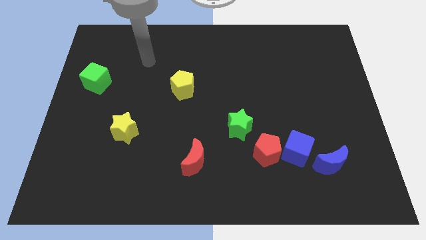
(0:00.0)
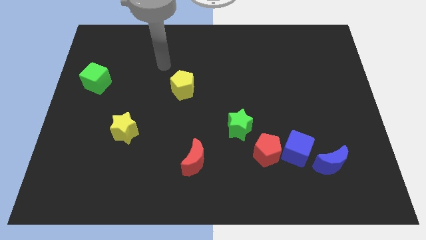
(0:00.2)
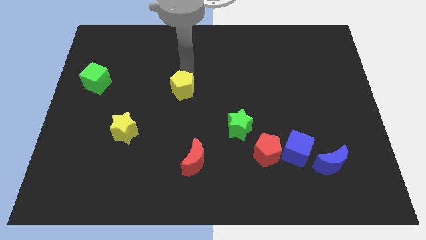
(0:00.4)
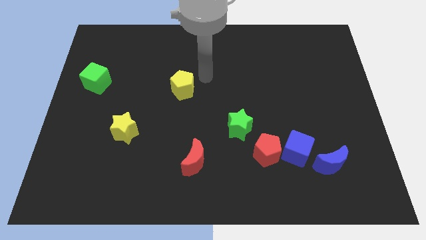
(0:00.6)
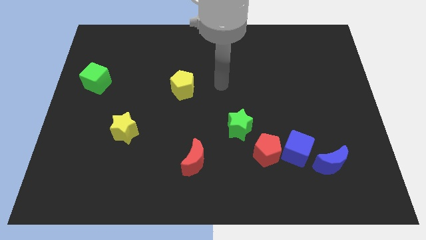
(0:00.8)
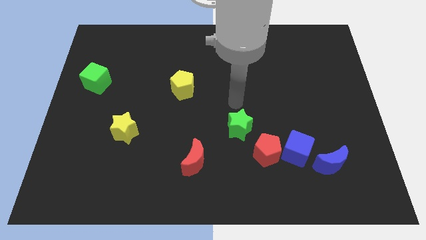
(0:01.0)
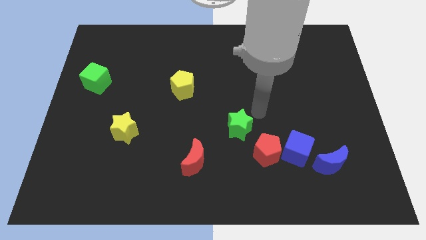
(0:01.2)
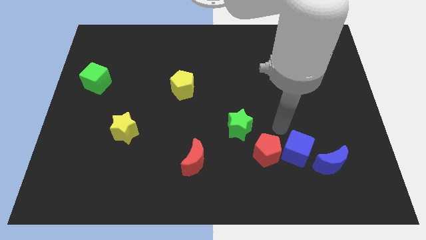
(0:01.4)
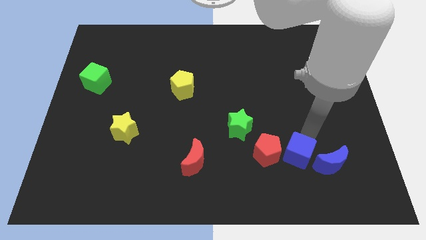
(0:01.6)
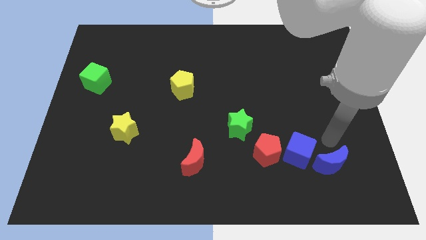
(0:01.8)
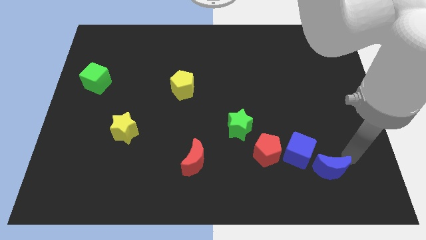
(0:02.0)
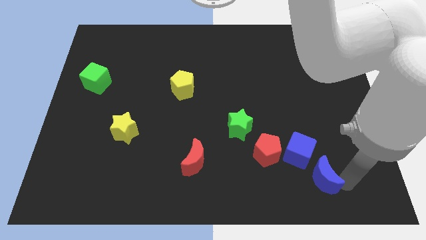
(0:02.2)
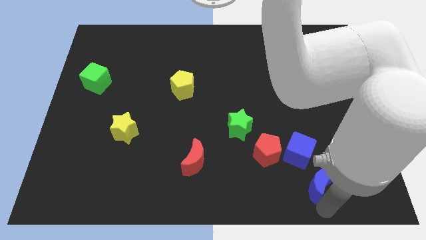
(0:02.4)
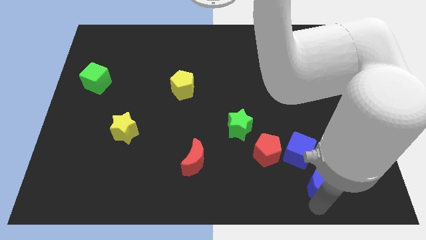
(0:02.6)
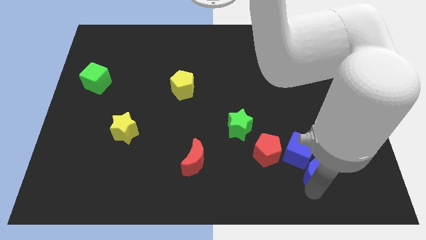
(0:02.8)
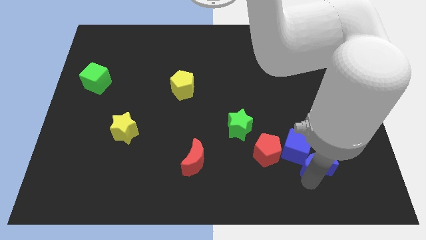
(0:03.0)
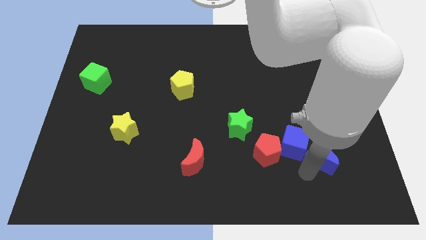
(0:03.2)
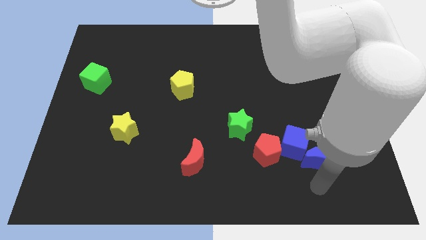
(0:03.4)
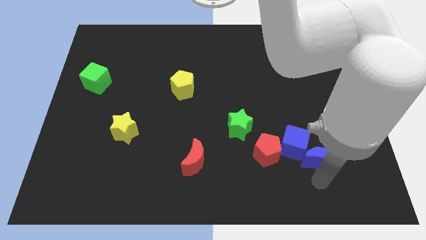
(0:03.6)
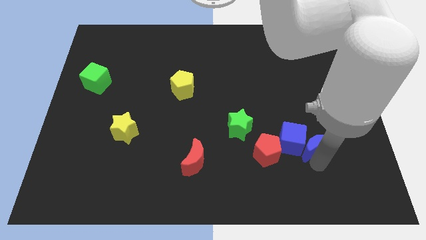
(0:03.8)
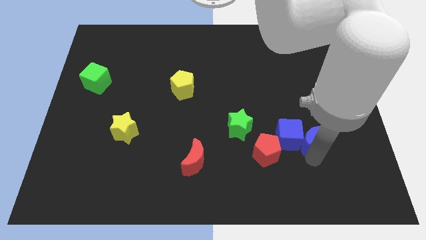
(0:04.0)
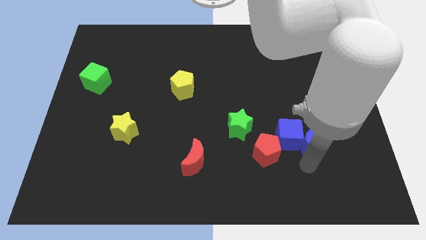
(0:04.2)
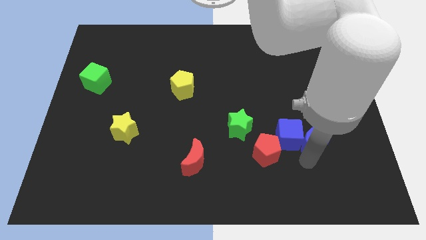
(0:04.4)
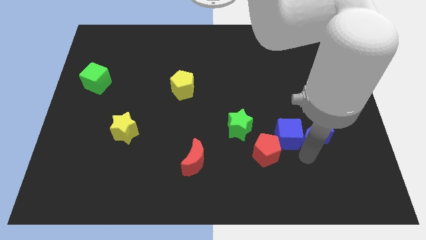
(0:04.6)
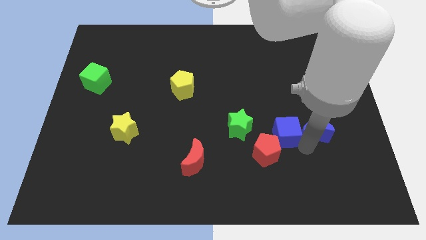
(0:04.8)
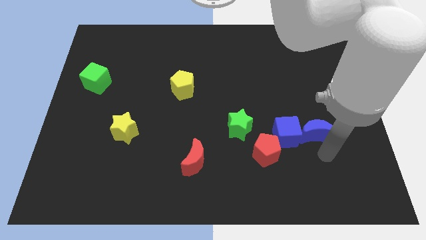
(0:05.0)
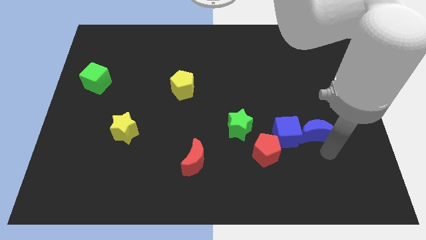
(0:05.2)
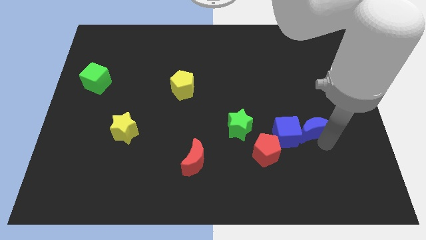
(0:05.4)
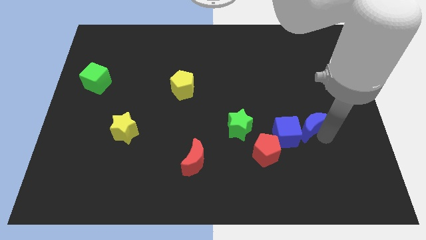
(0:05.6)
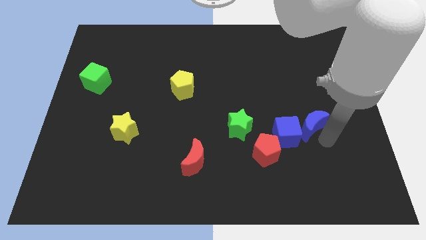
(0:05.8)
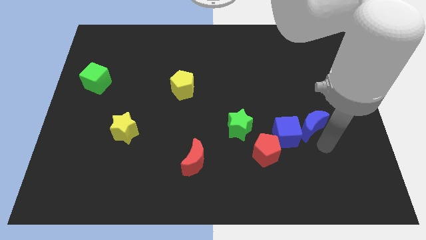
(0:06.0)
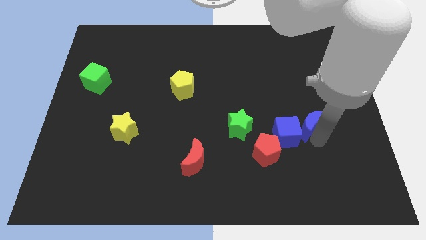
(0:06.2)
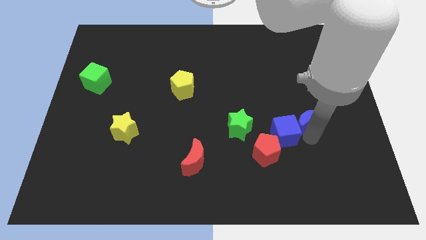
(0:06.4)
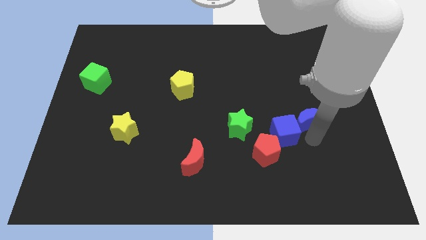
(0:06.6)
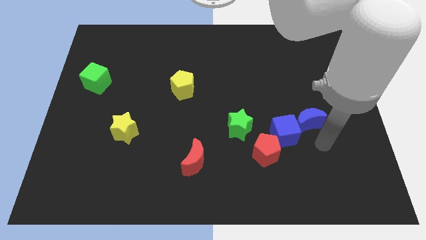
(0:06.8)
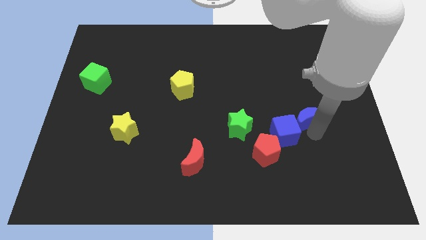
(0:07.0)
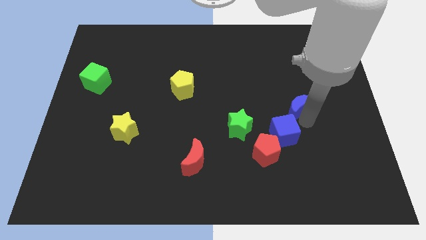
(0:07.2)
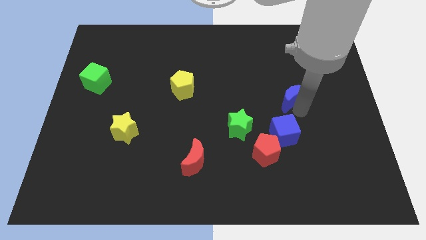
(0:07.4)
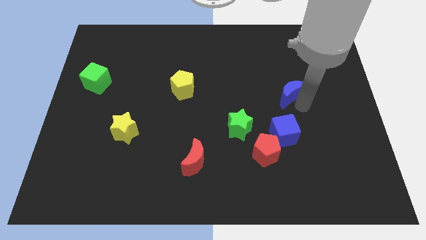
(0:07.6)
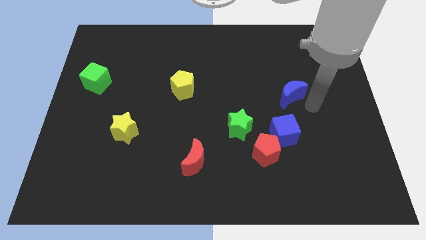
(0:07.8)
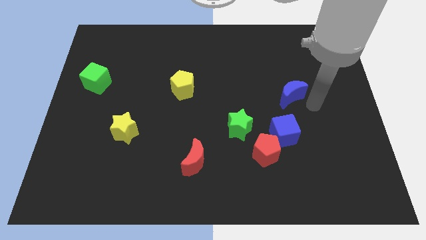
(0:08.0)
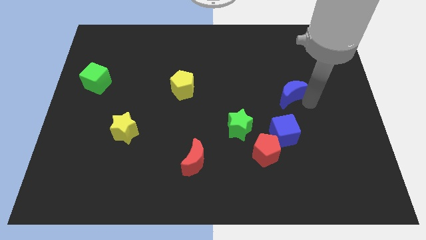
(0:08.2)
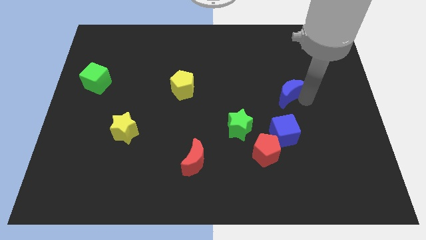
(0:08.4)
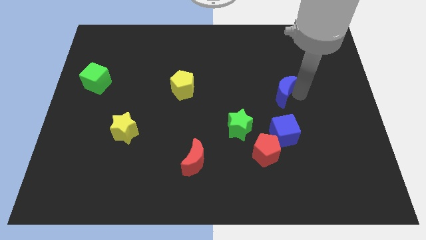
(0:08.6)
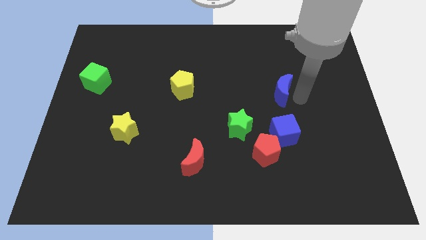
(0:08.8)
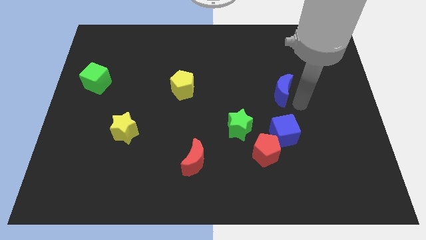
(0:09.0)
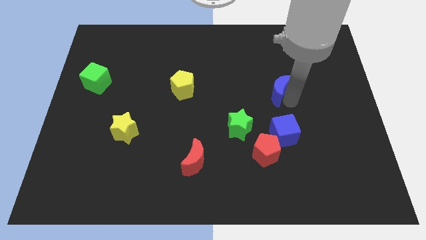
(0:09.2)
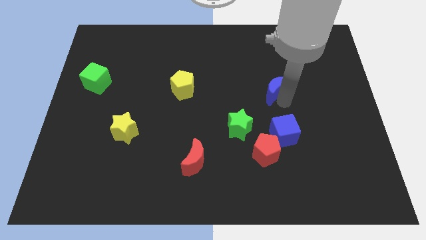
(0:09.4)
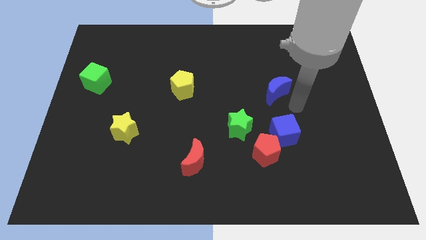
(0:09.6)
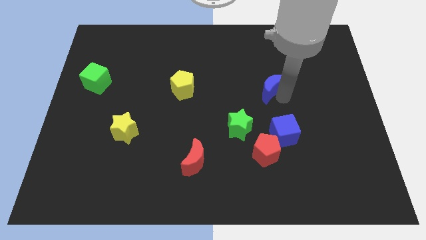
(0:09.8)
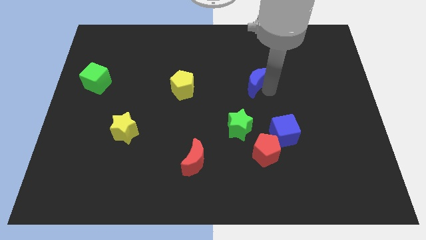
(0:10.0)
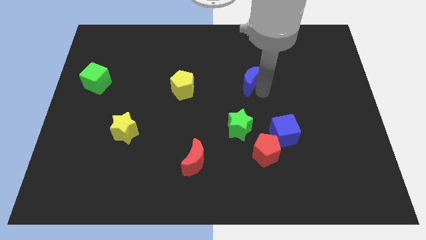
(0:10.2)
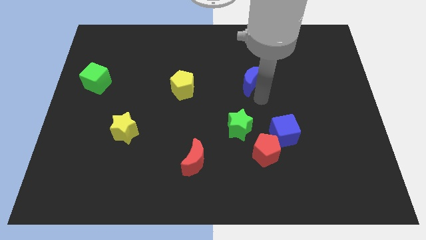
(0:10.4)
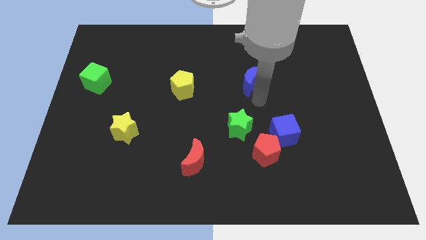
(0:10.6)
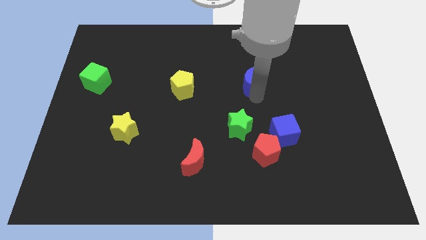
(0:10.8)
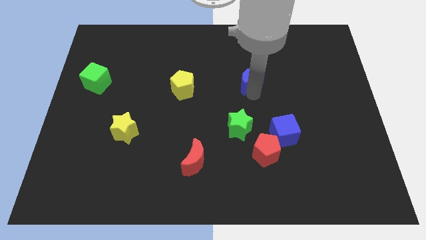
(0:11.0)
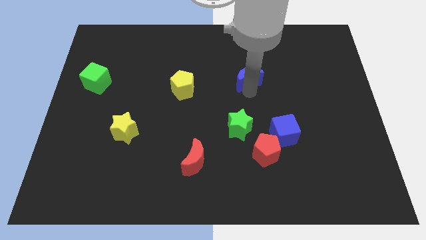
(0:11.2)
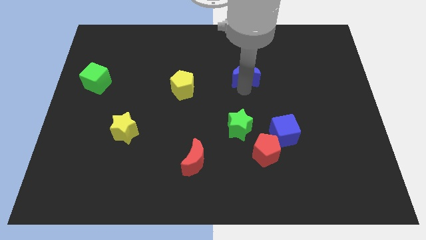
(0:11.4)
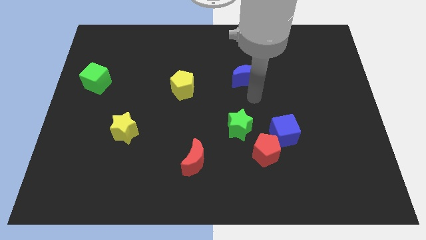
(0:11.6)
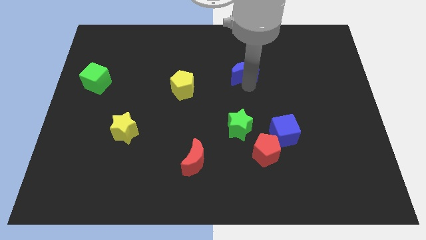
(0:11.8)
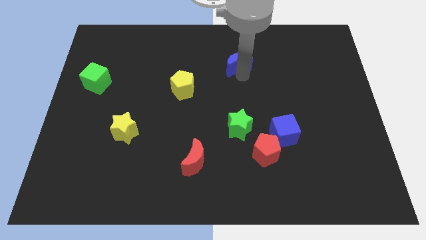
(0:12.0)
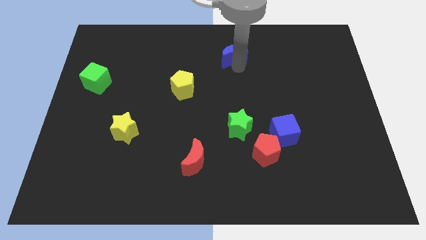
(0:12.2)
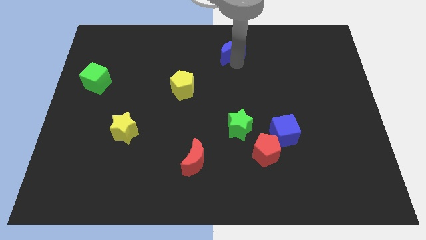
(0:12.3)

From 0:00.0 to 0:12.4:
move the blue moon to the top

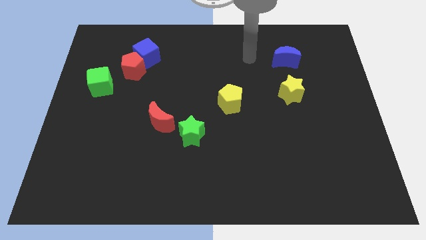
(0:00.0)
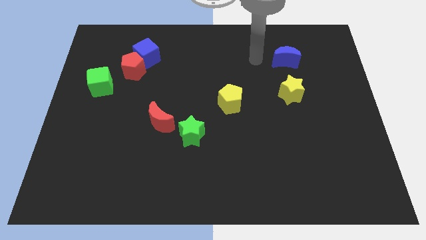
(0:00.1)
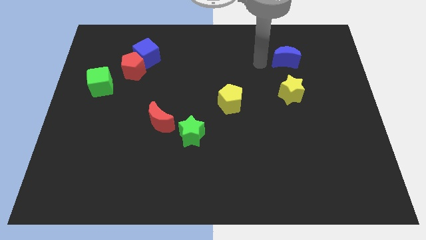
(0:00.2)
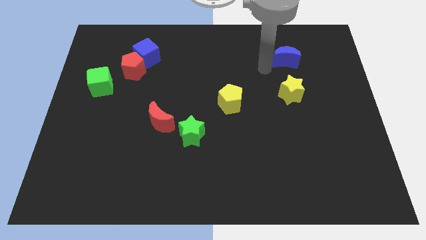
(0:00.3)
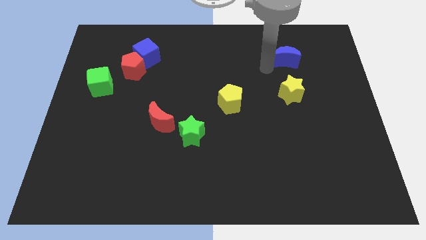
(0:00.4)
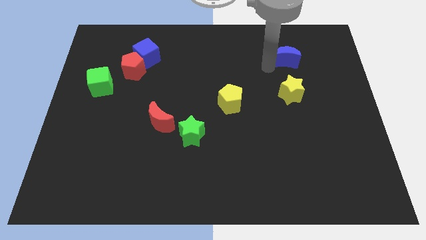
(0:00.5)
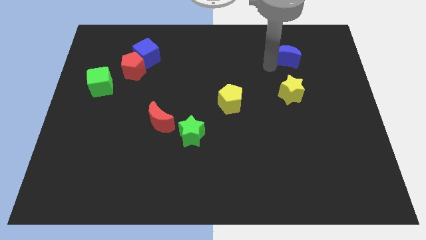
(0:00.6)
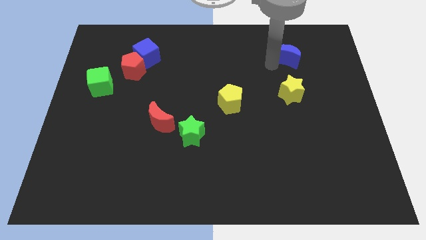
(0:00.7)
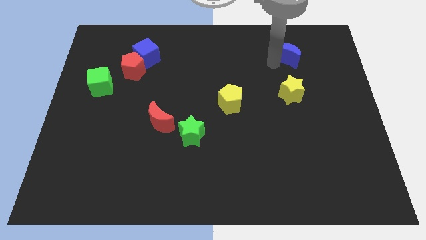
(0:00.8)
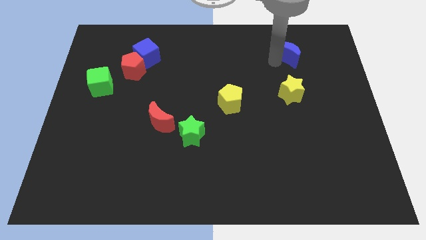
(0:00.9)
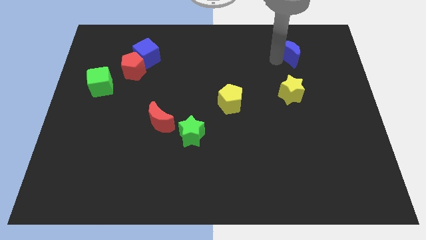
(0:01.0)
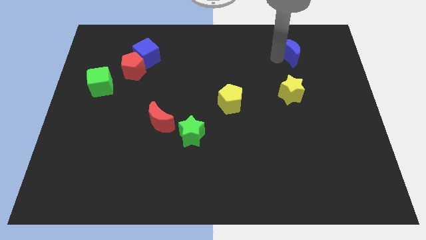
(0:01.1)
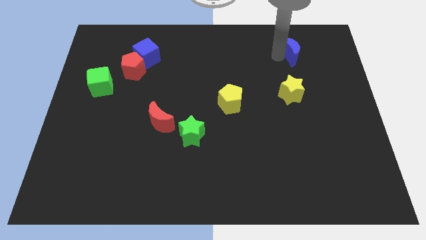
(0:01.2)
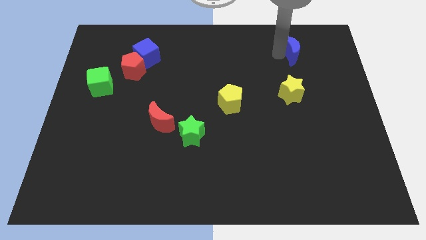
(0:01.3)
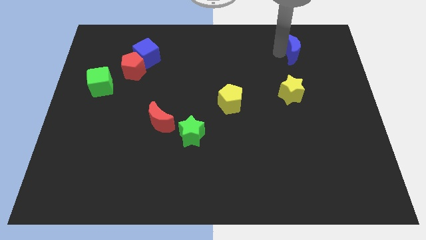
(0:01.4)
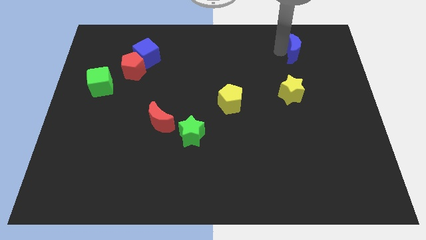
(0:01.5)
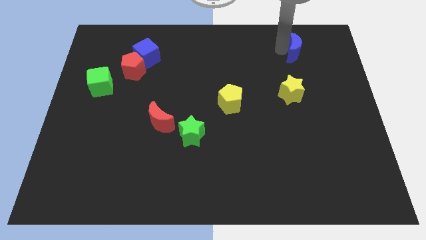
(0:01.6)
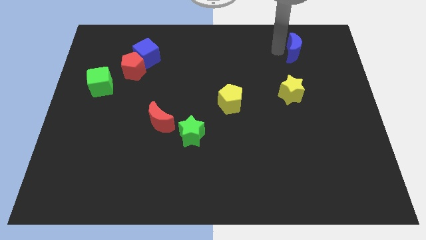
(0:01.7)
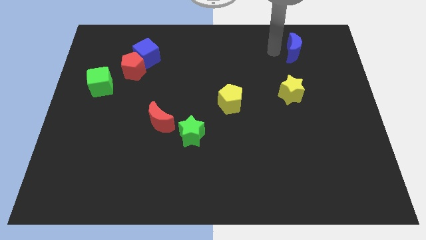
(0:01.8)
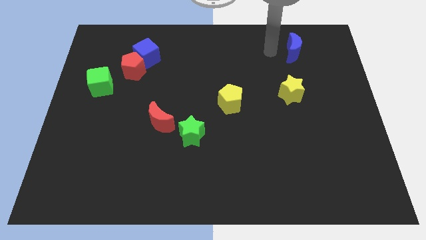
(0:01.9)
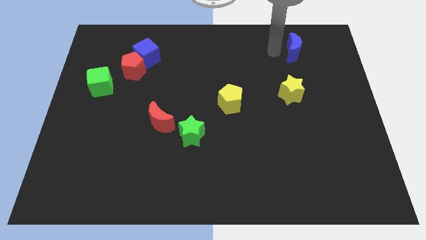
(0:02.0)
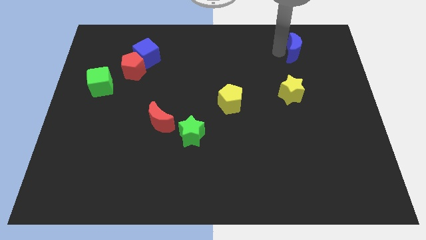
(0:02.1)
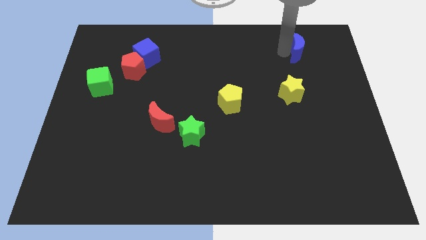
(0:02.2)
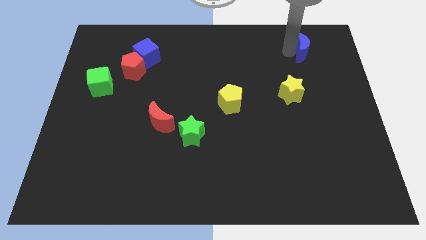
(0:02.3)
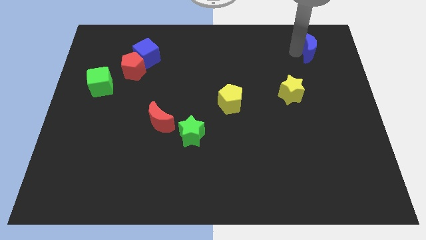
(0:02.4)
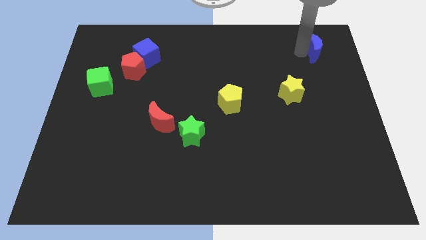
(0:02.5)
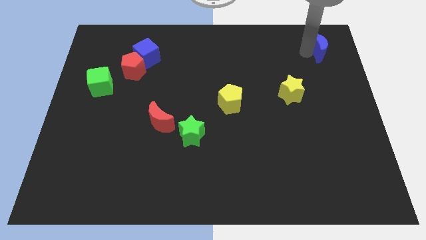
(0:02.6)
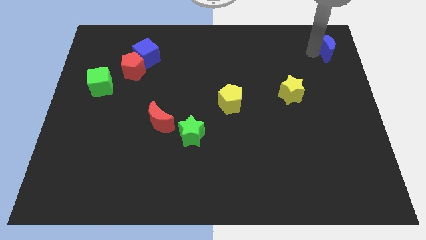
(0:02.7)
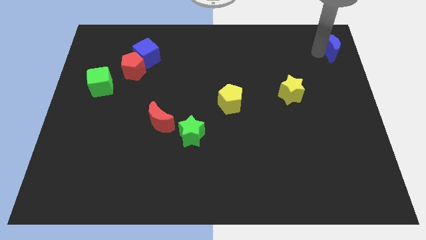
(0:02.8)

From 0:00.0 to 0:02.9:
slide the blue moon to the top right
